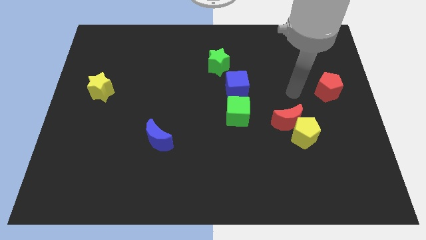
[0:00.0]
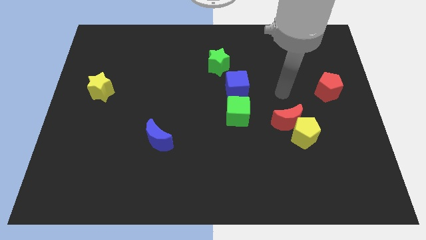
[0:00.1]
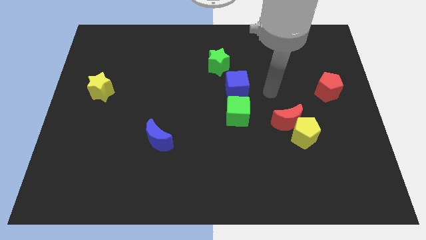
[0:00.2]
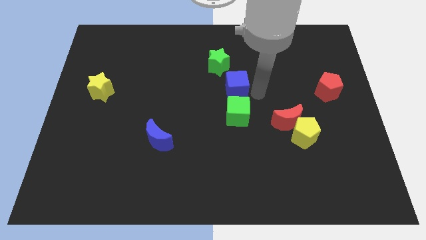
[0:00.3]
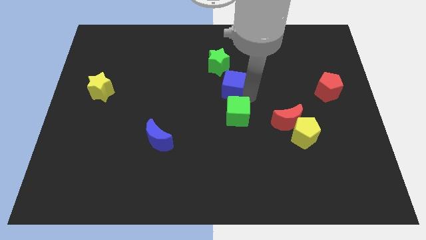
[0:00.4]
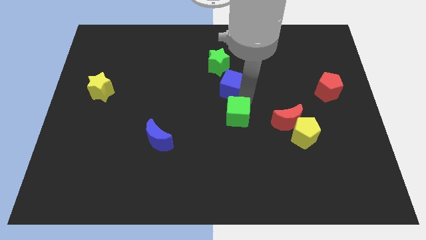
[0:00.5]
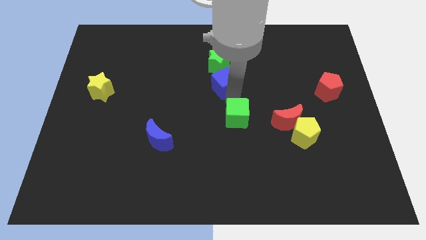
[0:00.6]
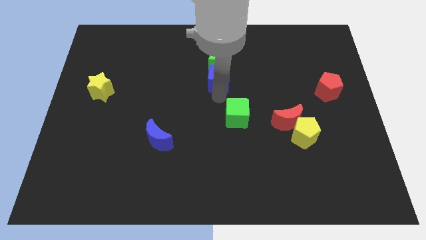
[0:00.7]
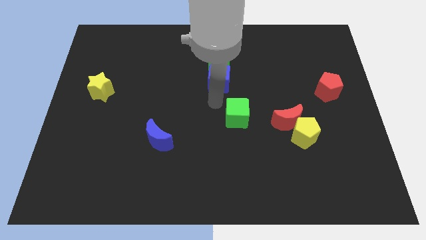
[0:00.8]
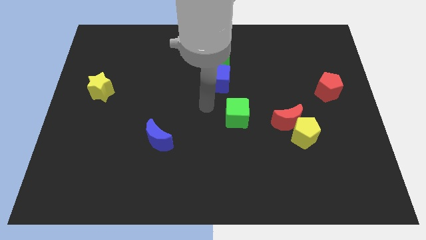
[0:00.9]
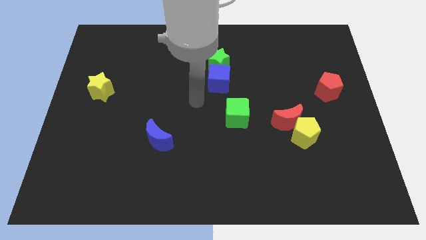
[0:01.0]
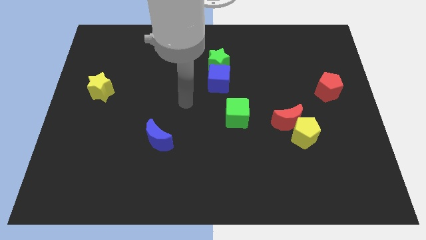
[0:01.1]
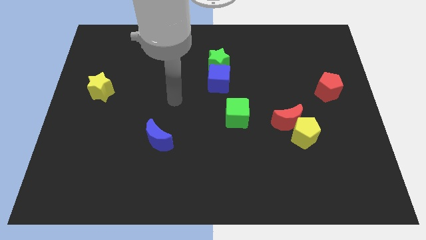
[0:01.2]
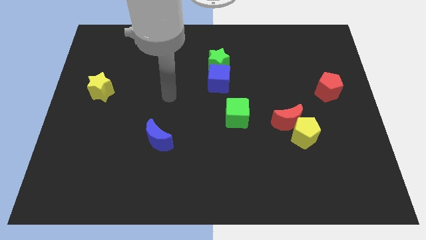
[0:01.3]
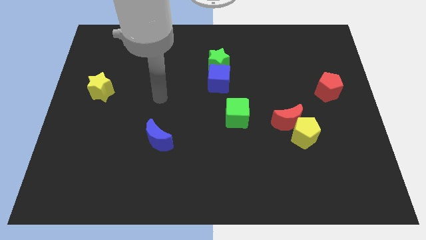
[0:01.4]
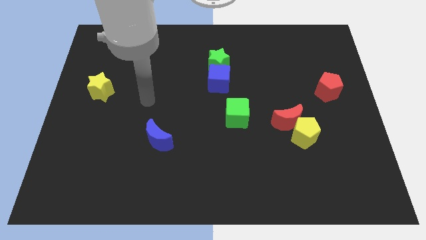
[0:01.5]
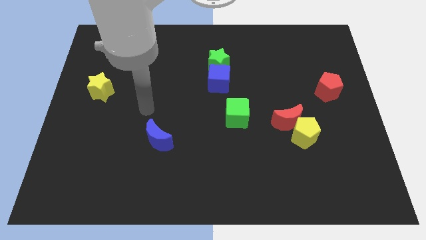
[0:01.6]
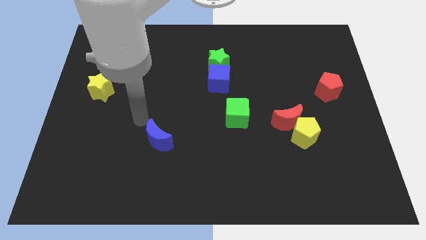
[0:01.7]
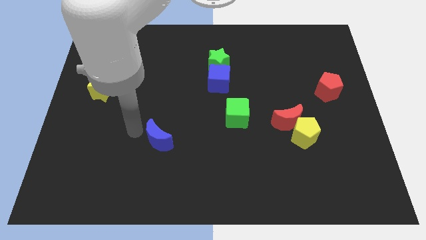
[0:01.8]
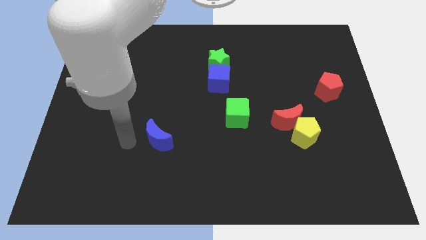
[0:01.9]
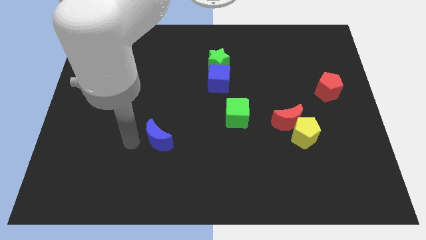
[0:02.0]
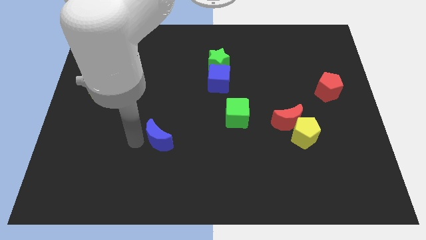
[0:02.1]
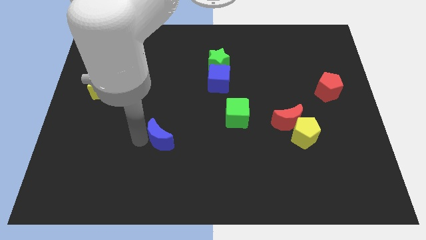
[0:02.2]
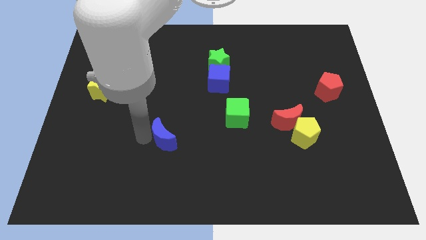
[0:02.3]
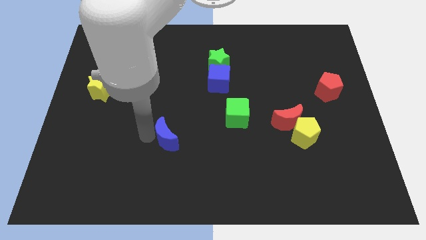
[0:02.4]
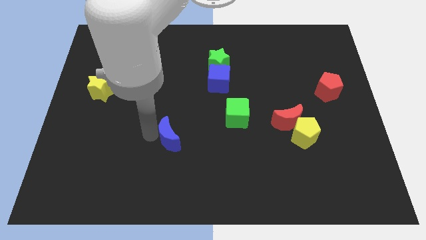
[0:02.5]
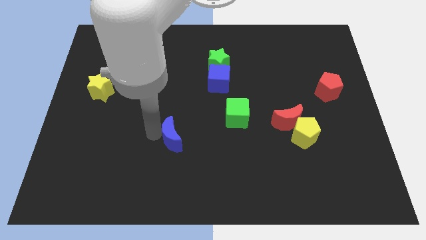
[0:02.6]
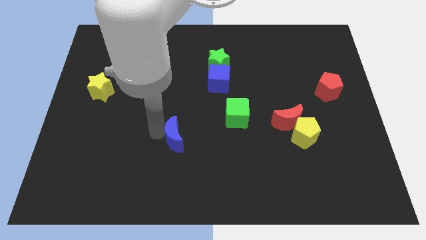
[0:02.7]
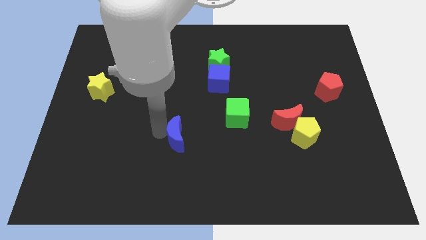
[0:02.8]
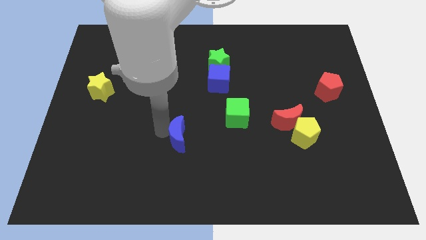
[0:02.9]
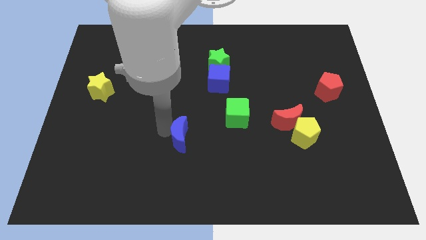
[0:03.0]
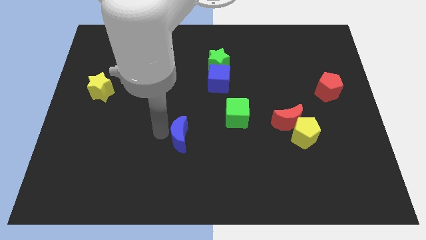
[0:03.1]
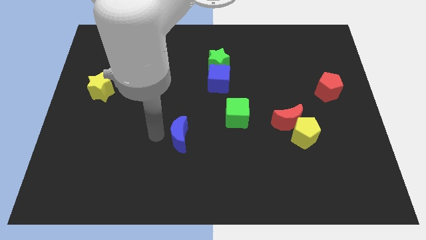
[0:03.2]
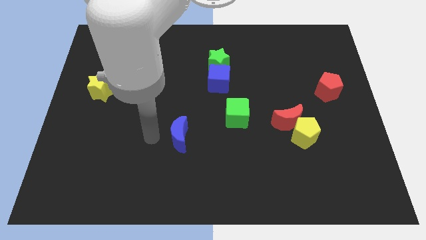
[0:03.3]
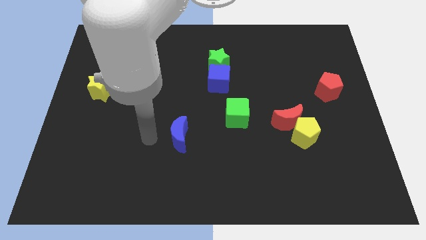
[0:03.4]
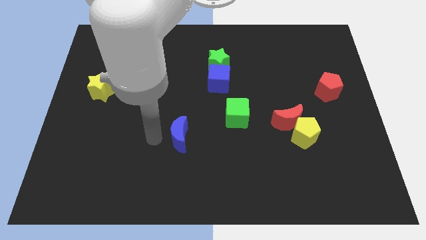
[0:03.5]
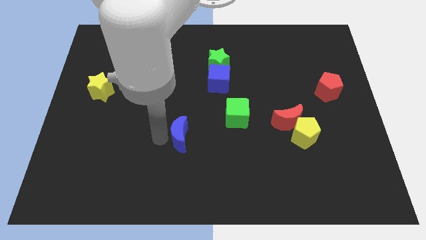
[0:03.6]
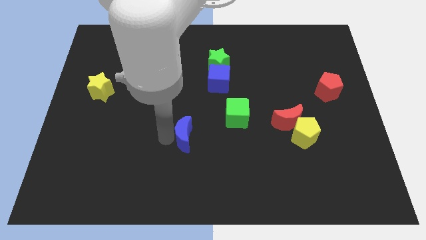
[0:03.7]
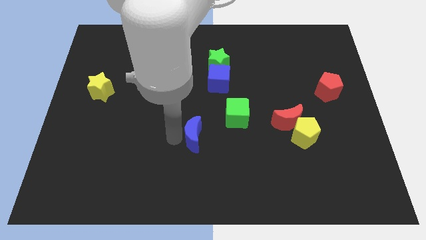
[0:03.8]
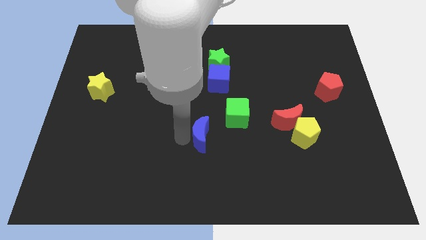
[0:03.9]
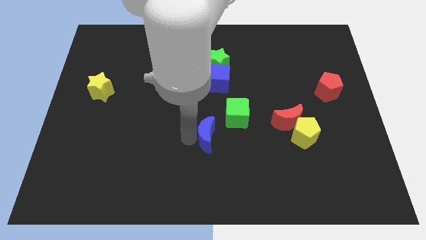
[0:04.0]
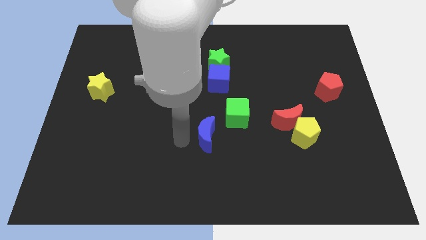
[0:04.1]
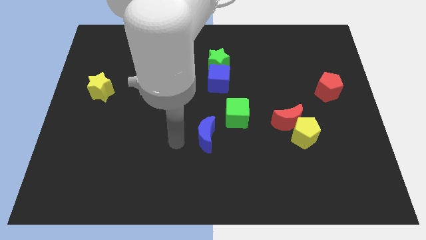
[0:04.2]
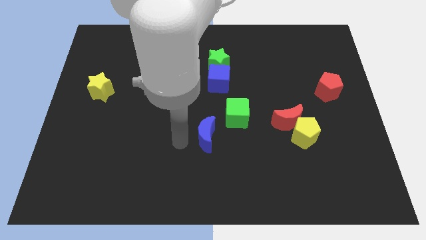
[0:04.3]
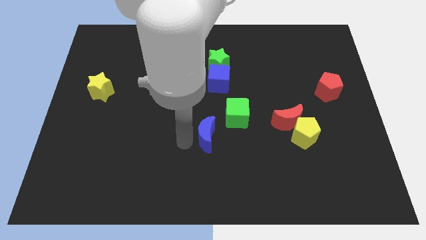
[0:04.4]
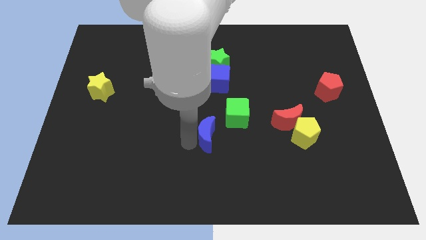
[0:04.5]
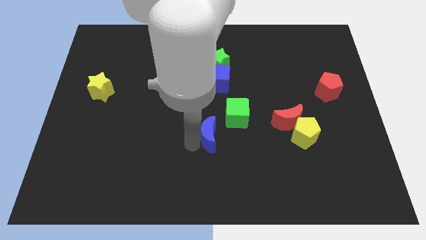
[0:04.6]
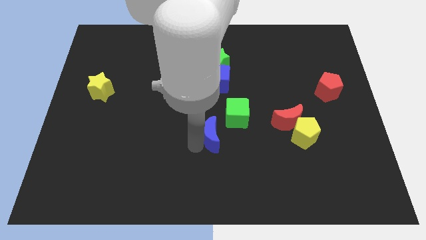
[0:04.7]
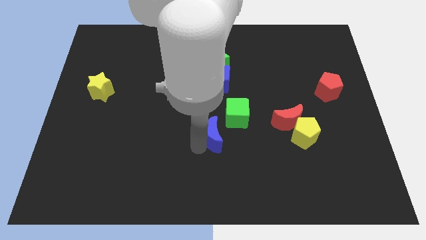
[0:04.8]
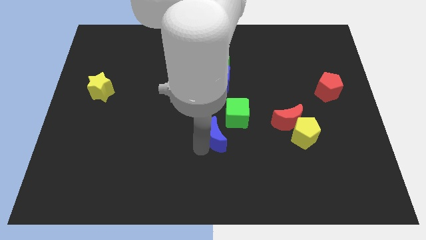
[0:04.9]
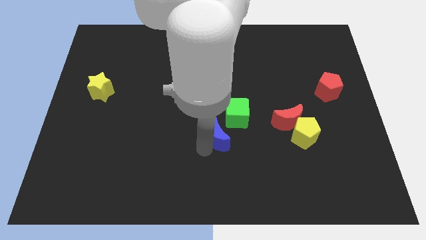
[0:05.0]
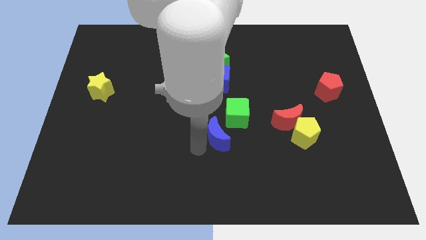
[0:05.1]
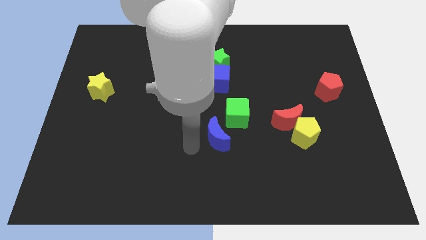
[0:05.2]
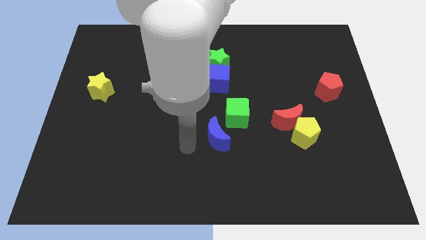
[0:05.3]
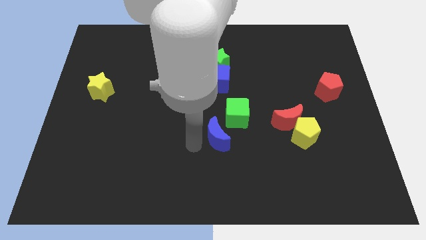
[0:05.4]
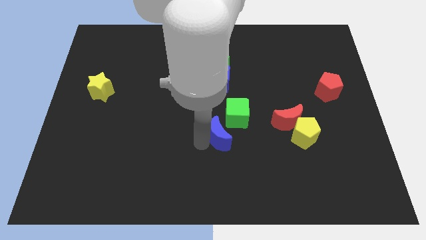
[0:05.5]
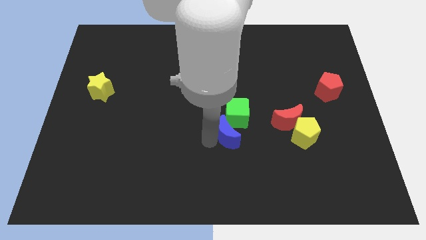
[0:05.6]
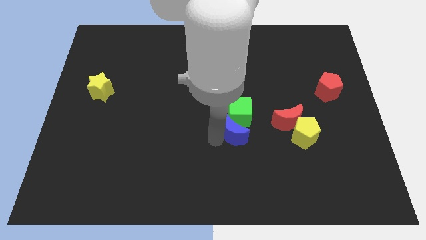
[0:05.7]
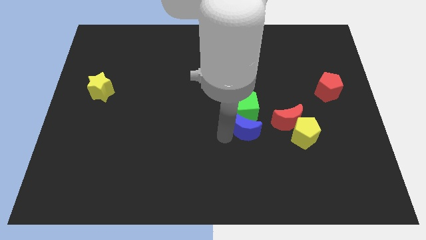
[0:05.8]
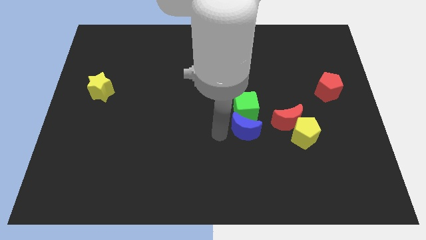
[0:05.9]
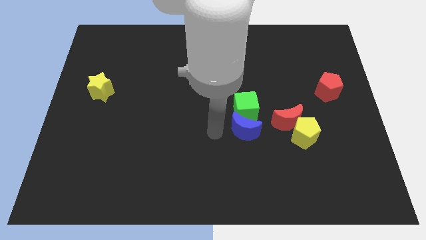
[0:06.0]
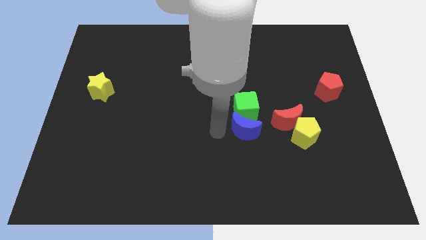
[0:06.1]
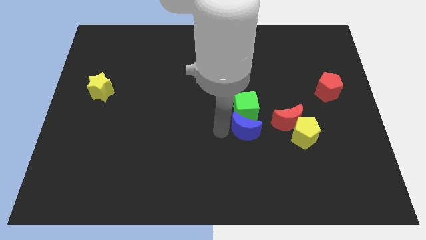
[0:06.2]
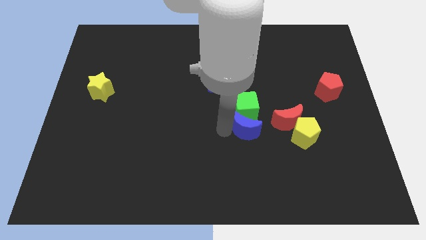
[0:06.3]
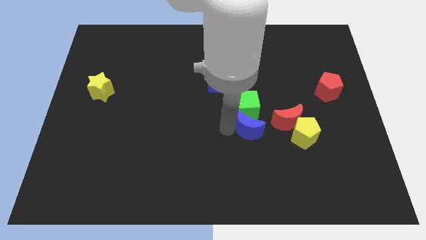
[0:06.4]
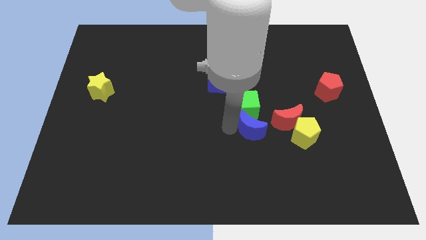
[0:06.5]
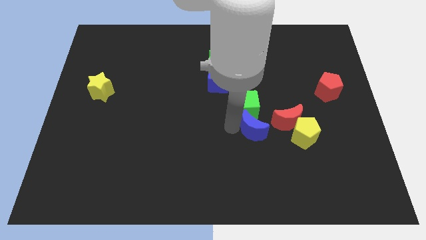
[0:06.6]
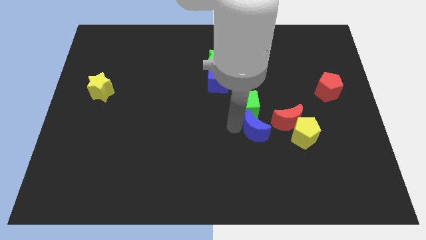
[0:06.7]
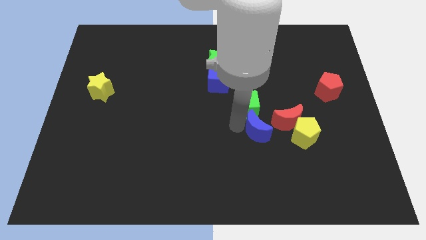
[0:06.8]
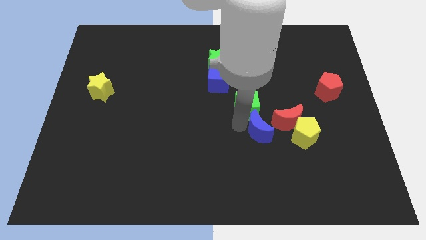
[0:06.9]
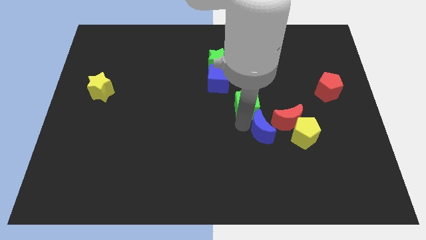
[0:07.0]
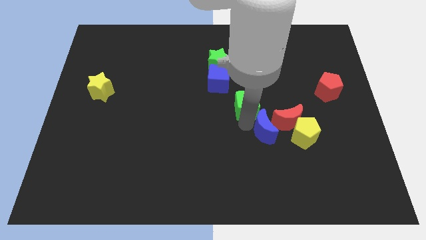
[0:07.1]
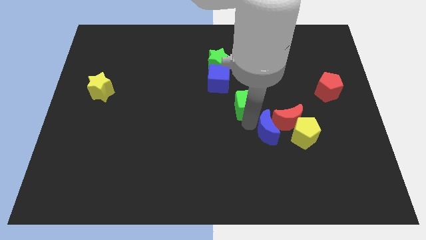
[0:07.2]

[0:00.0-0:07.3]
slide the blue moon close to the red moon
